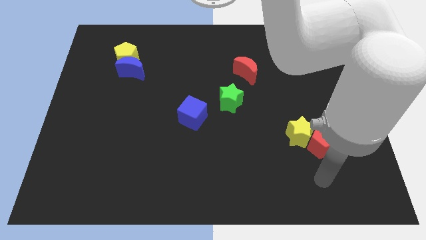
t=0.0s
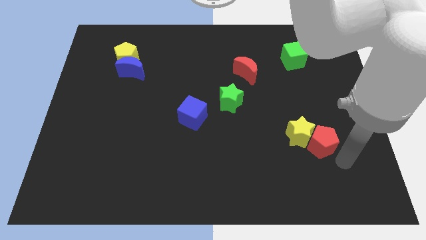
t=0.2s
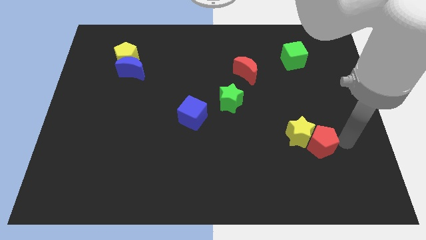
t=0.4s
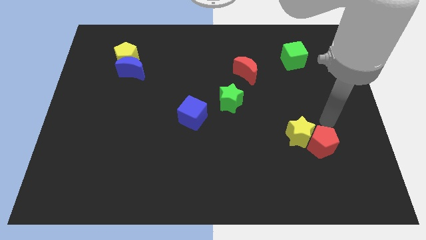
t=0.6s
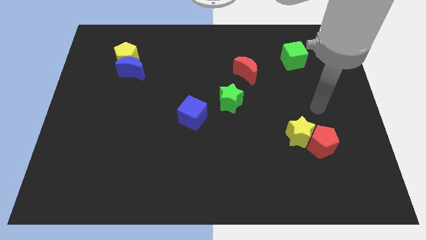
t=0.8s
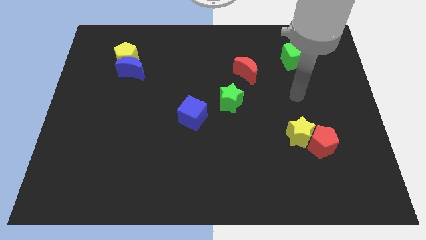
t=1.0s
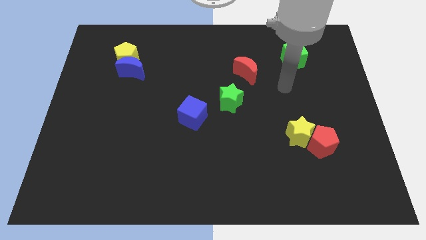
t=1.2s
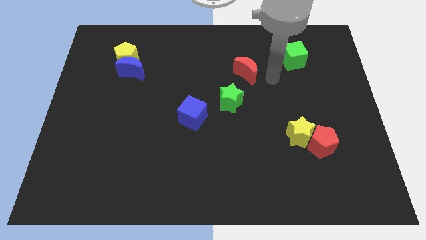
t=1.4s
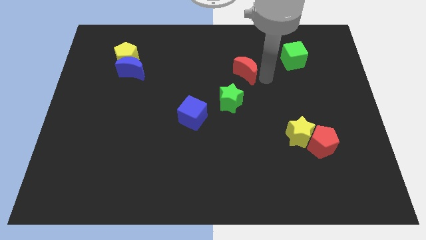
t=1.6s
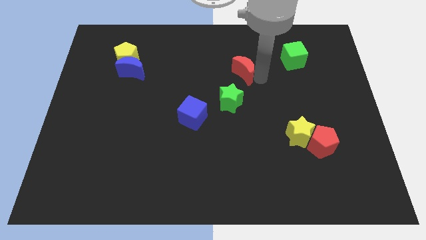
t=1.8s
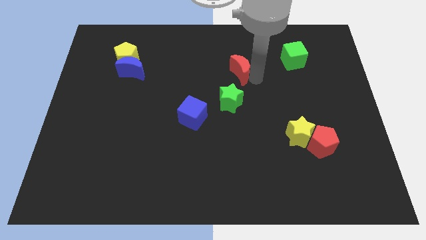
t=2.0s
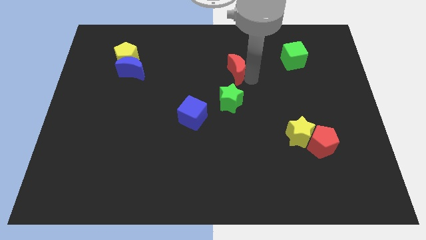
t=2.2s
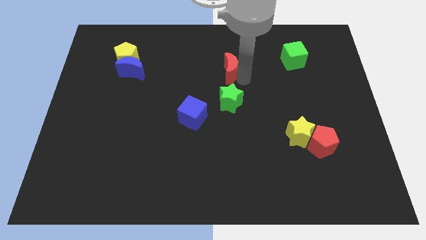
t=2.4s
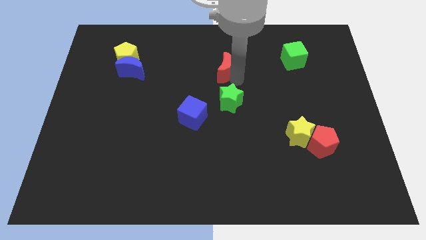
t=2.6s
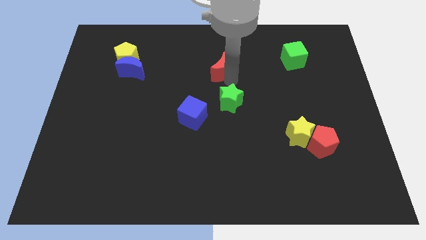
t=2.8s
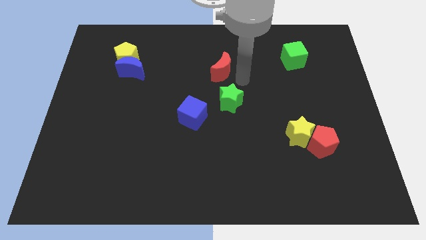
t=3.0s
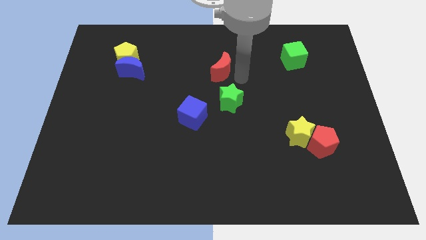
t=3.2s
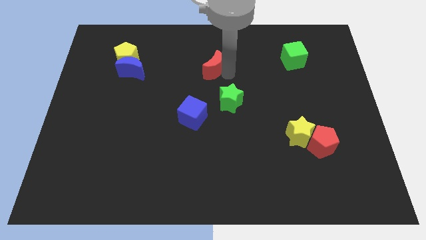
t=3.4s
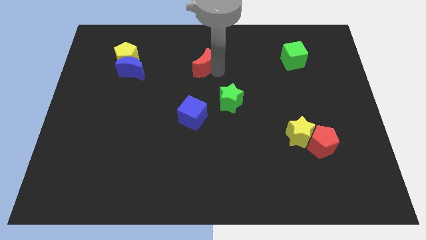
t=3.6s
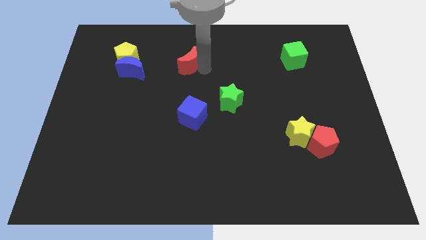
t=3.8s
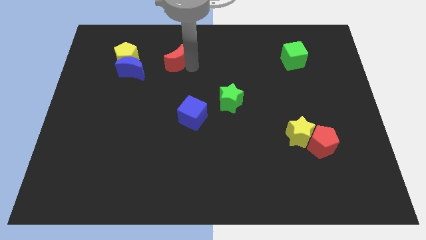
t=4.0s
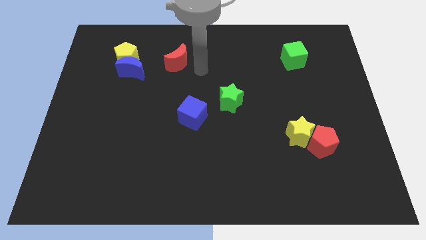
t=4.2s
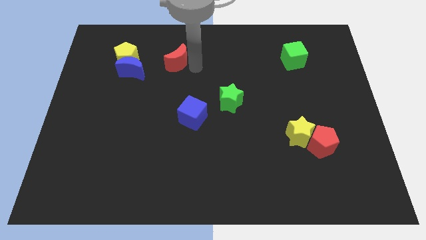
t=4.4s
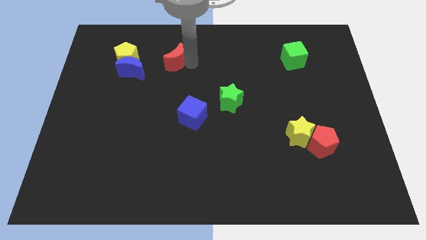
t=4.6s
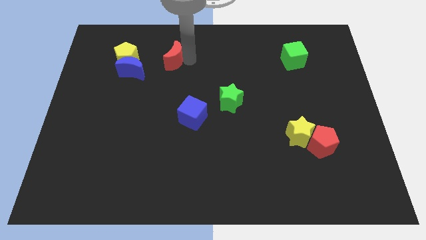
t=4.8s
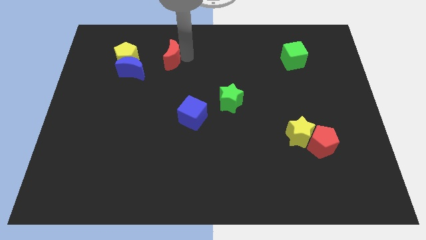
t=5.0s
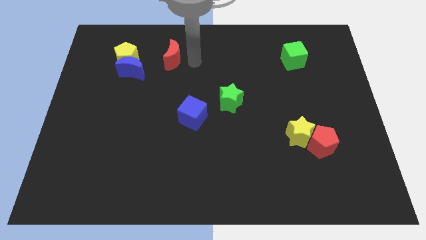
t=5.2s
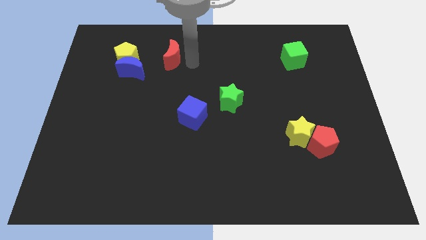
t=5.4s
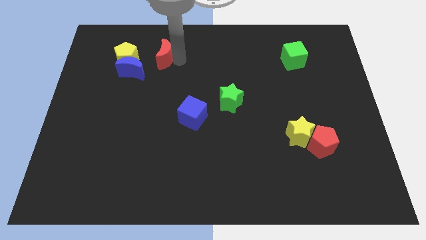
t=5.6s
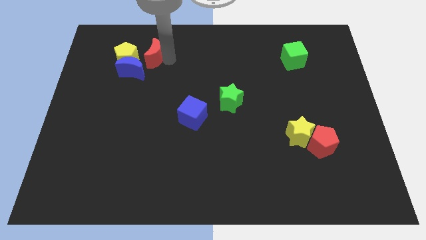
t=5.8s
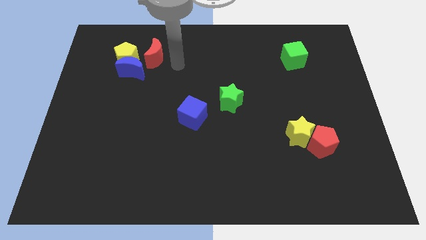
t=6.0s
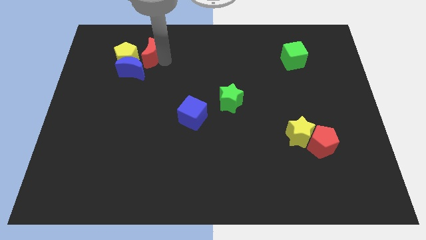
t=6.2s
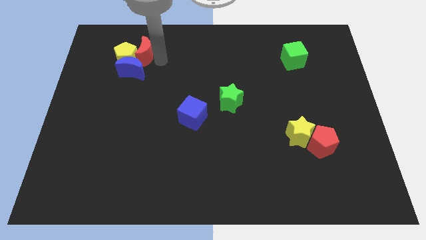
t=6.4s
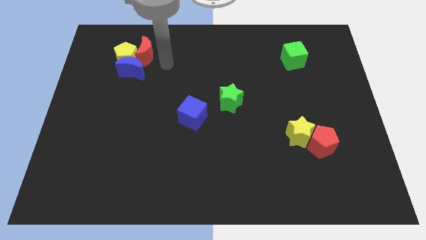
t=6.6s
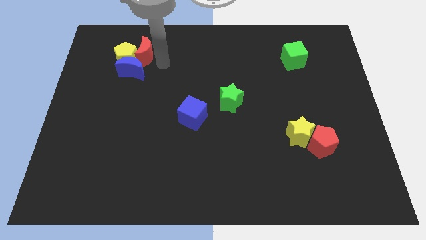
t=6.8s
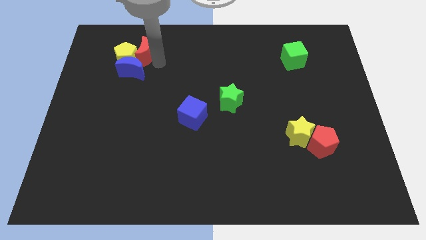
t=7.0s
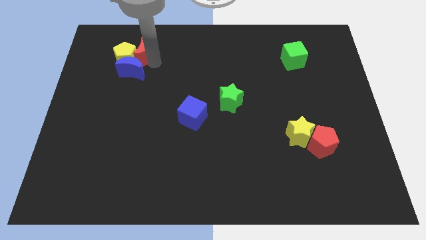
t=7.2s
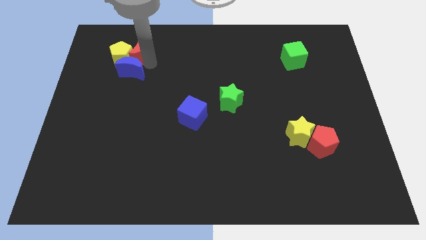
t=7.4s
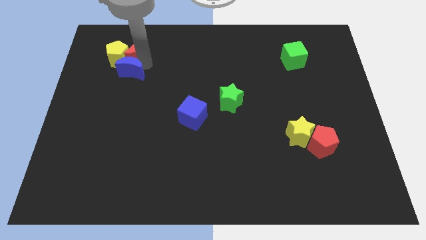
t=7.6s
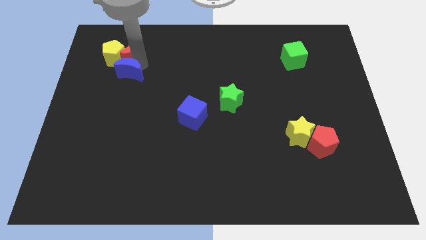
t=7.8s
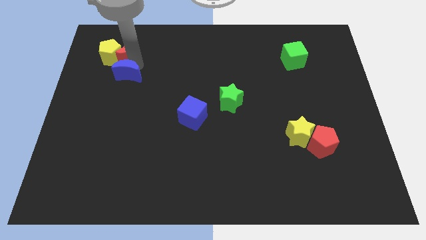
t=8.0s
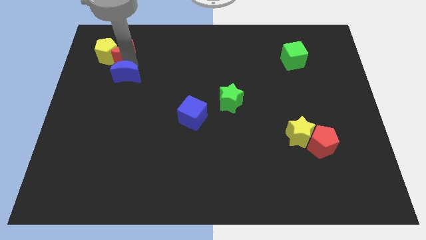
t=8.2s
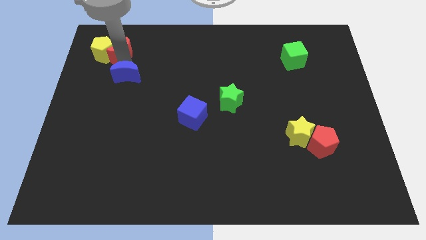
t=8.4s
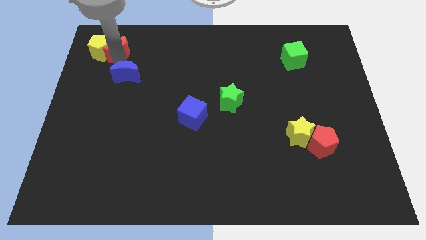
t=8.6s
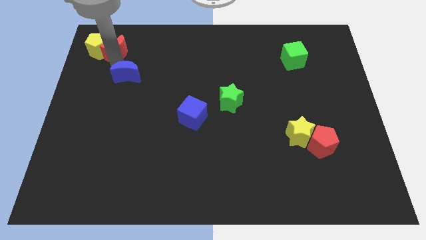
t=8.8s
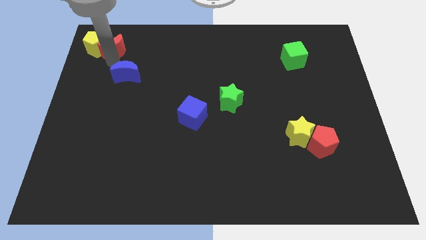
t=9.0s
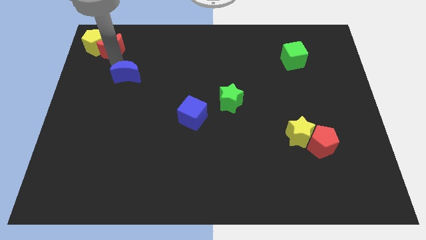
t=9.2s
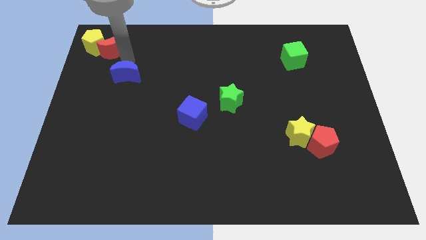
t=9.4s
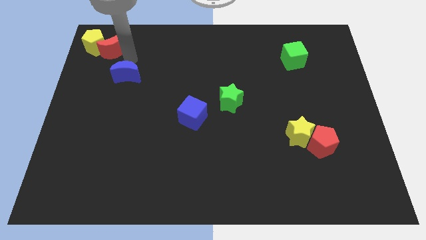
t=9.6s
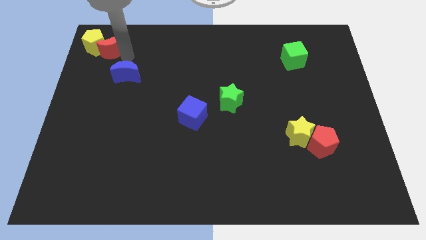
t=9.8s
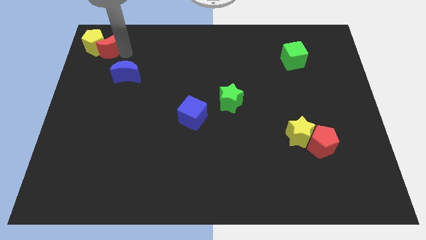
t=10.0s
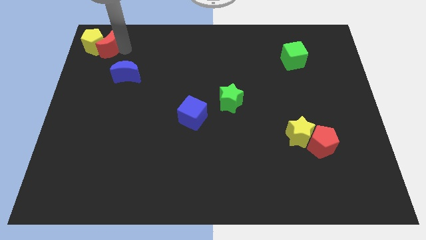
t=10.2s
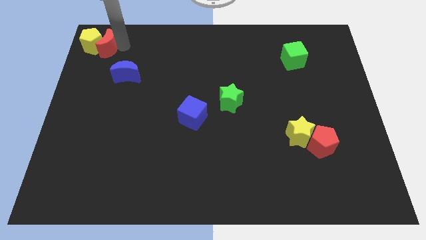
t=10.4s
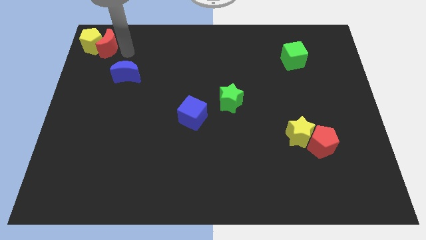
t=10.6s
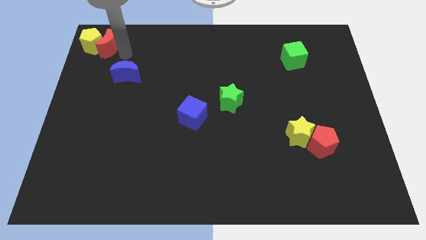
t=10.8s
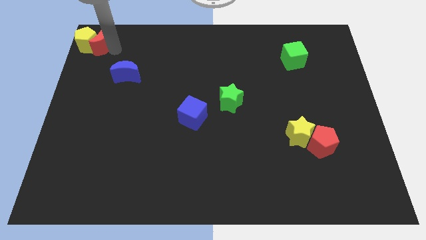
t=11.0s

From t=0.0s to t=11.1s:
slide the red moon to the upper left corner
